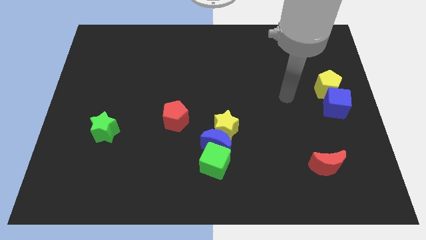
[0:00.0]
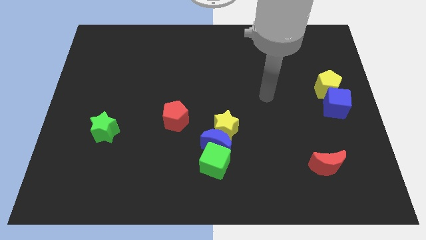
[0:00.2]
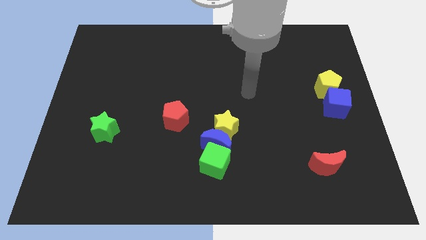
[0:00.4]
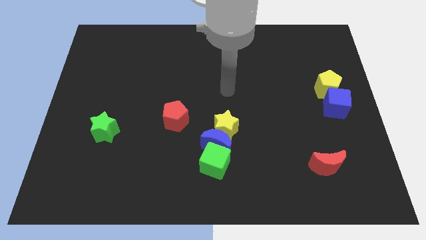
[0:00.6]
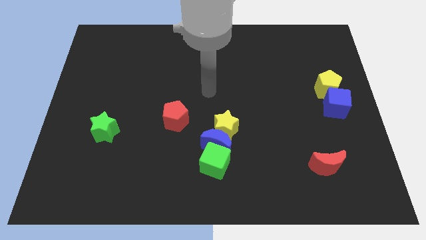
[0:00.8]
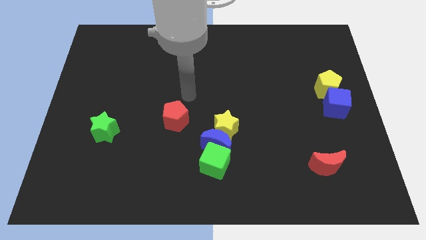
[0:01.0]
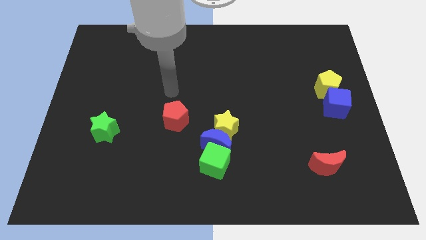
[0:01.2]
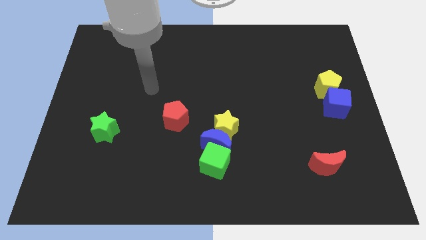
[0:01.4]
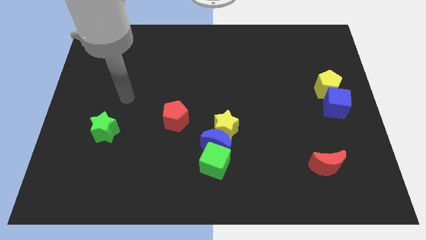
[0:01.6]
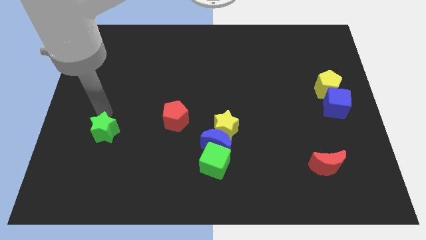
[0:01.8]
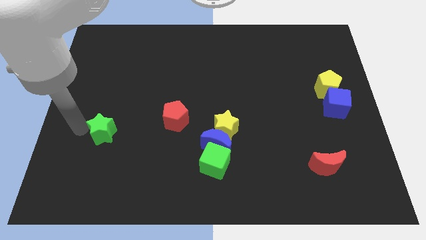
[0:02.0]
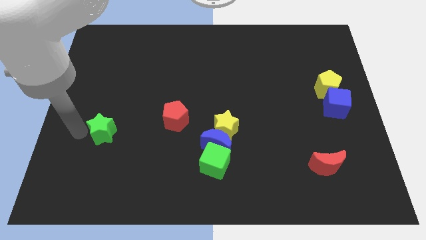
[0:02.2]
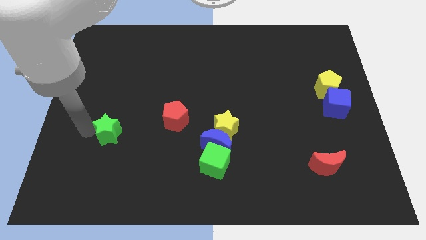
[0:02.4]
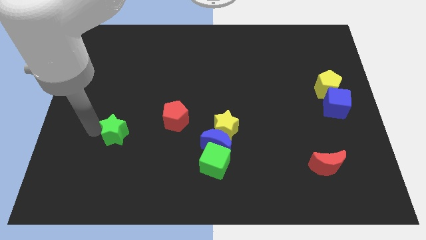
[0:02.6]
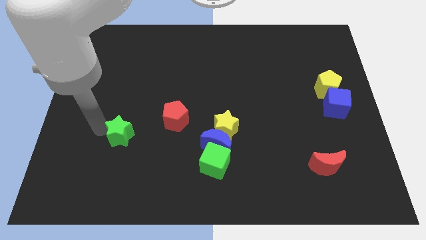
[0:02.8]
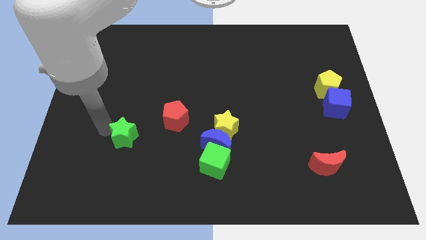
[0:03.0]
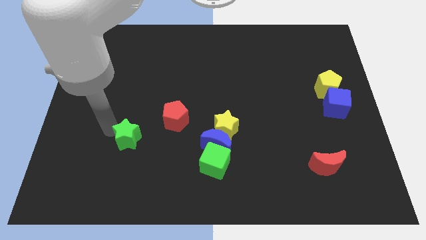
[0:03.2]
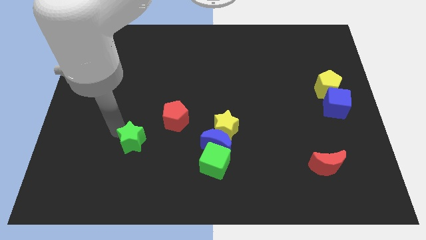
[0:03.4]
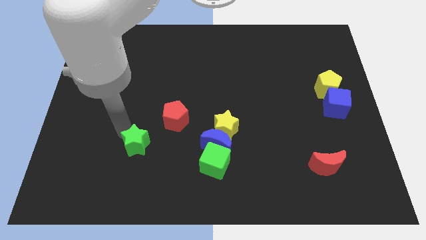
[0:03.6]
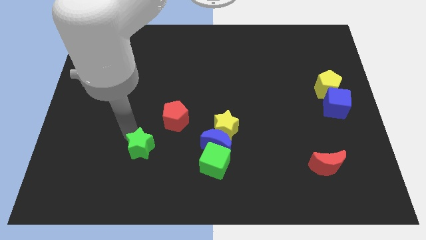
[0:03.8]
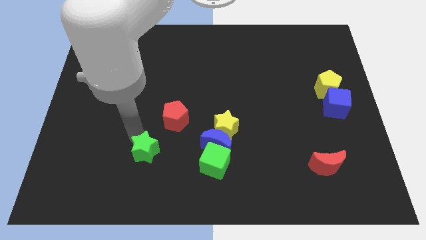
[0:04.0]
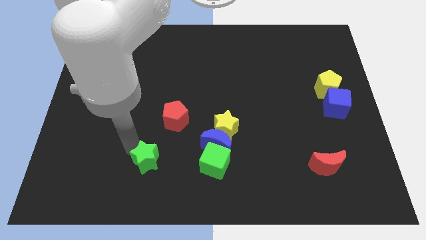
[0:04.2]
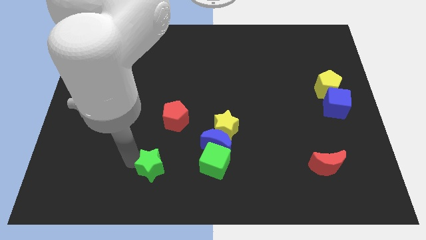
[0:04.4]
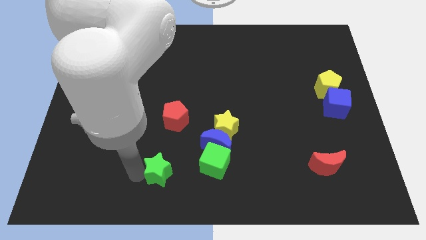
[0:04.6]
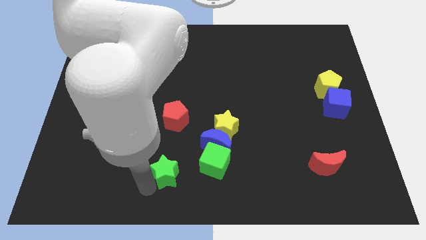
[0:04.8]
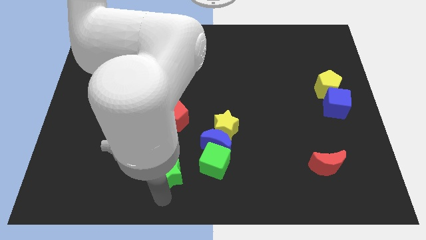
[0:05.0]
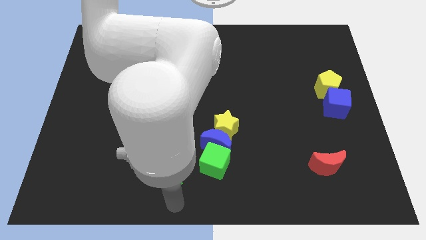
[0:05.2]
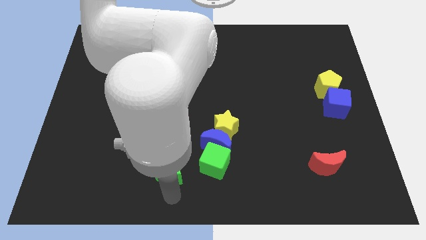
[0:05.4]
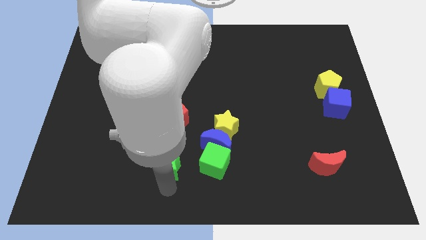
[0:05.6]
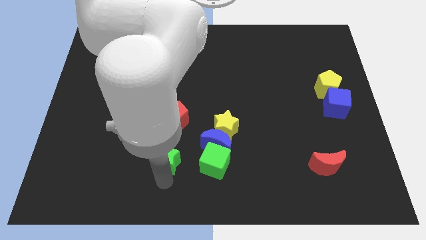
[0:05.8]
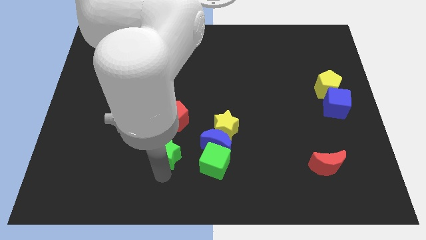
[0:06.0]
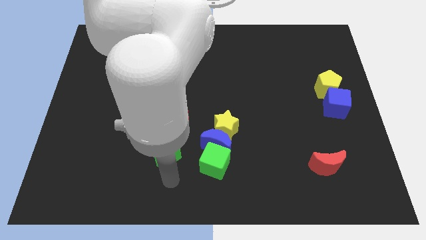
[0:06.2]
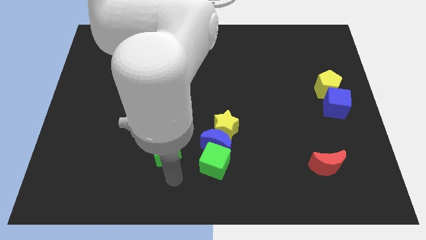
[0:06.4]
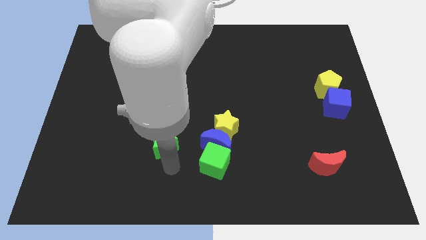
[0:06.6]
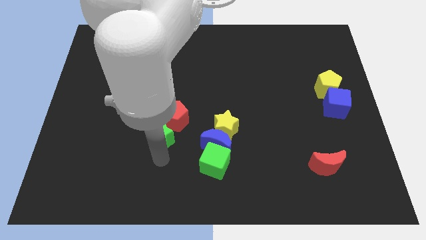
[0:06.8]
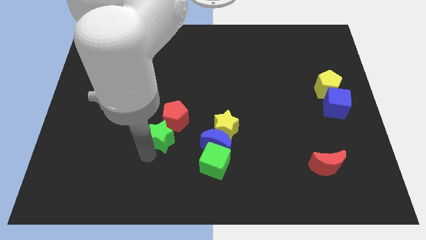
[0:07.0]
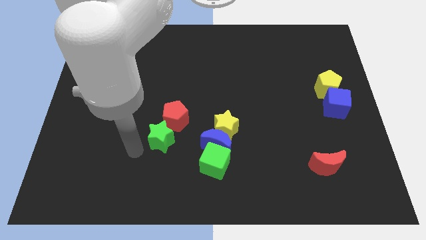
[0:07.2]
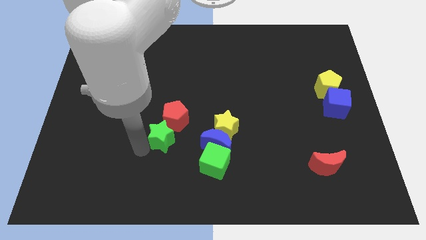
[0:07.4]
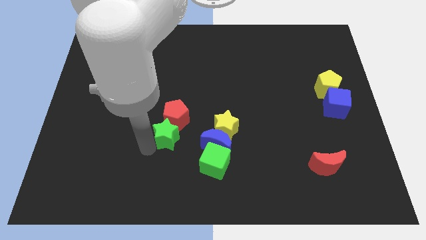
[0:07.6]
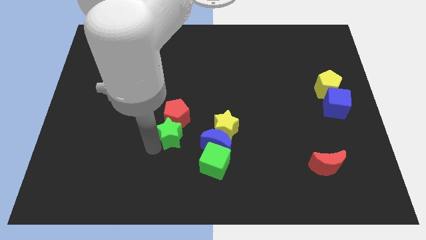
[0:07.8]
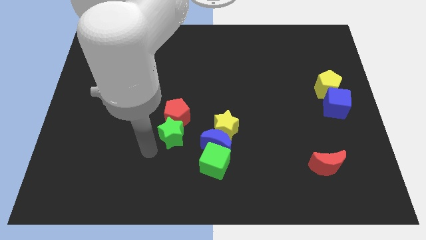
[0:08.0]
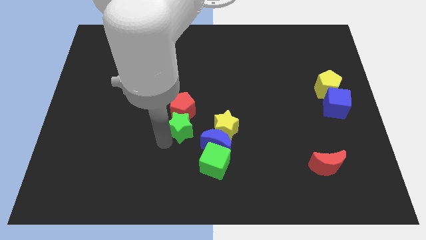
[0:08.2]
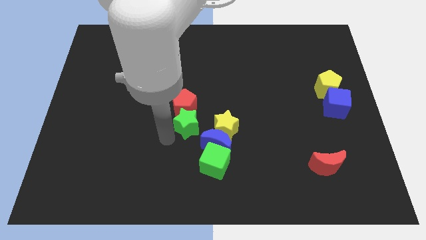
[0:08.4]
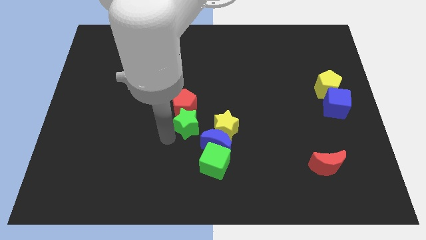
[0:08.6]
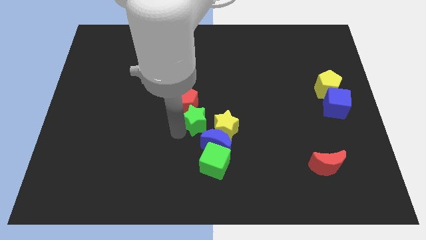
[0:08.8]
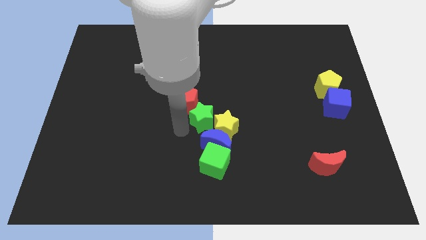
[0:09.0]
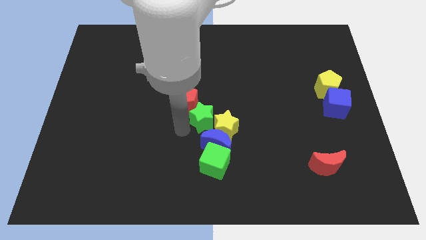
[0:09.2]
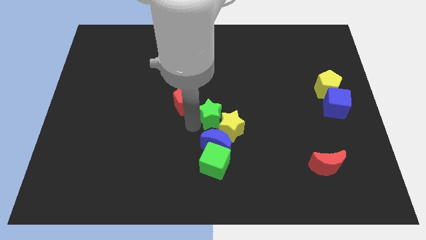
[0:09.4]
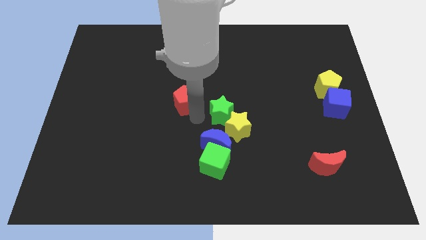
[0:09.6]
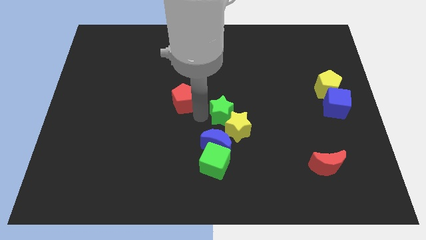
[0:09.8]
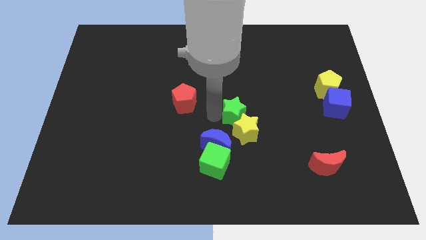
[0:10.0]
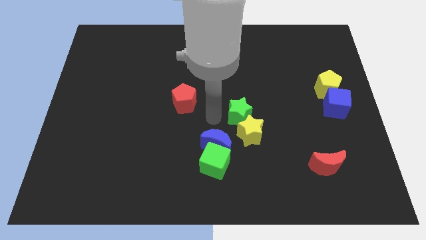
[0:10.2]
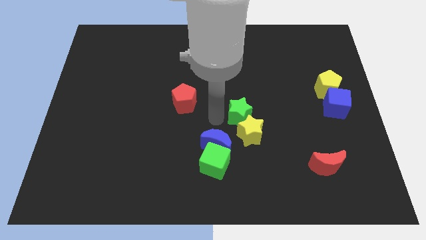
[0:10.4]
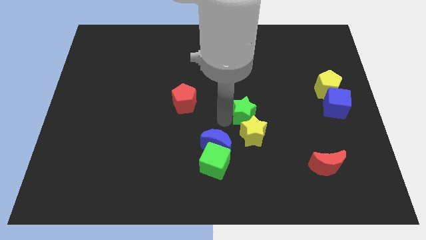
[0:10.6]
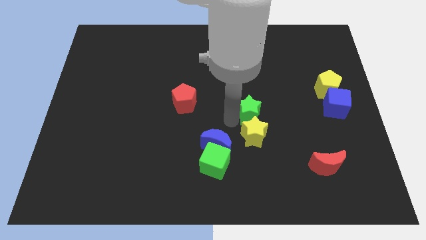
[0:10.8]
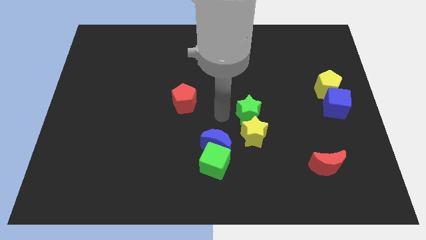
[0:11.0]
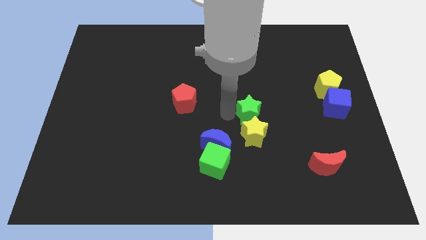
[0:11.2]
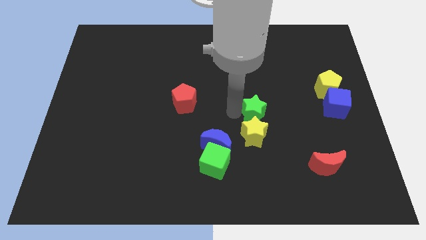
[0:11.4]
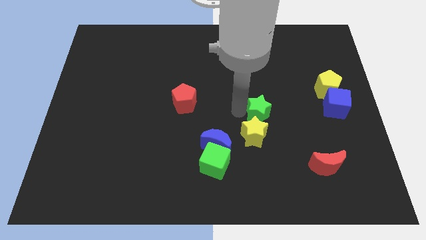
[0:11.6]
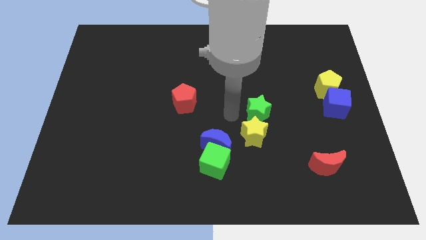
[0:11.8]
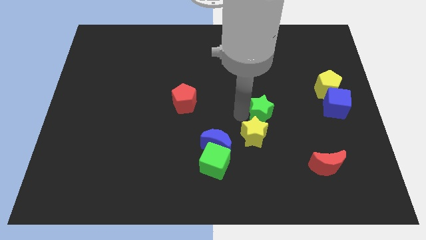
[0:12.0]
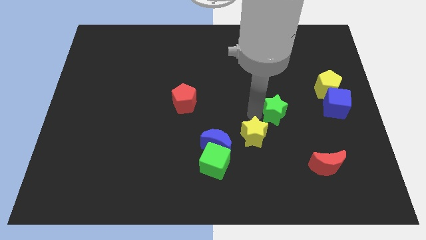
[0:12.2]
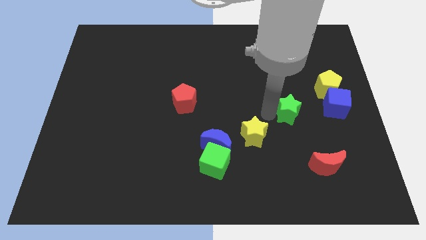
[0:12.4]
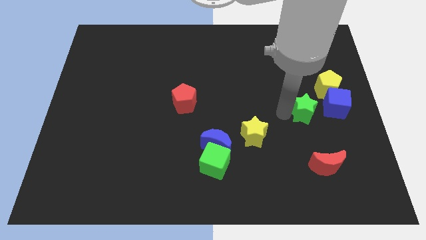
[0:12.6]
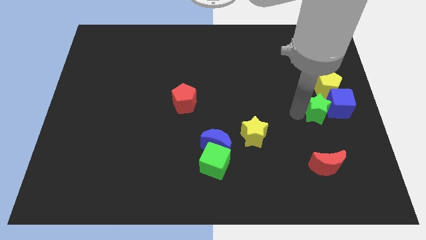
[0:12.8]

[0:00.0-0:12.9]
put the green star towards the blue cube
